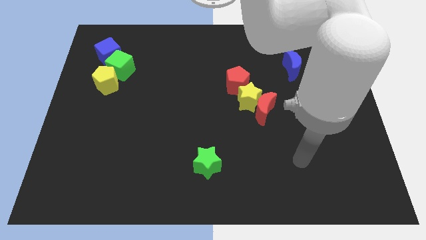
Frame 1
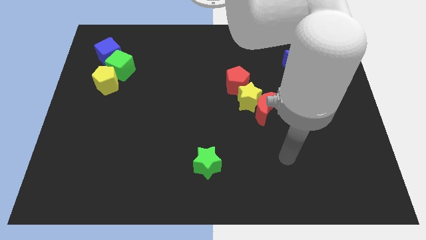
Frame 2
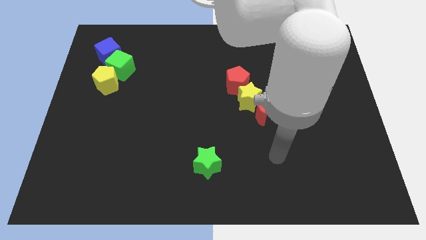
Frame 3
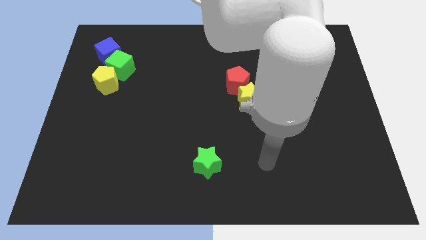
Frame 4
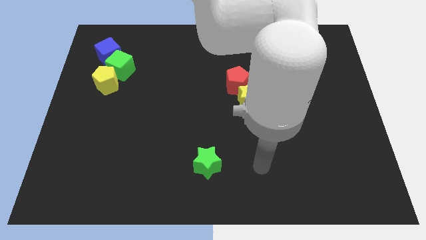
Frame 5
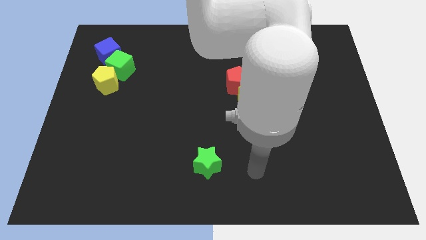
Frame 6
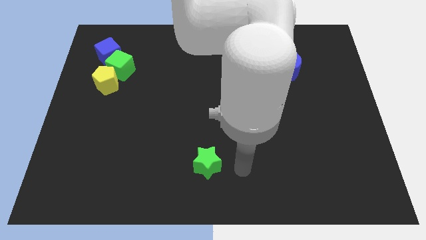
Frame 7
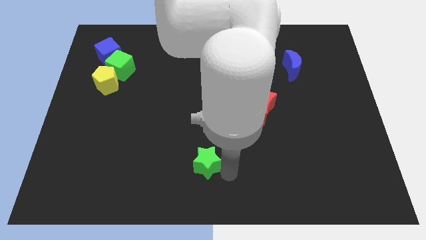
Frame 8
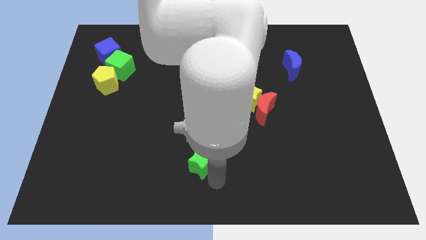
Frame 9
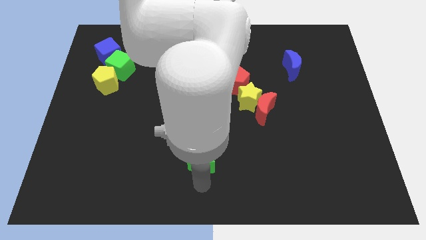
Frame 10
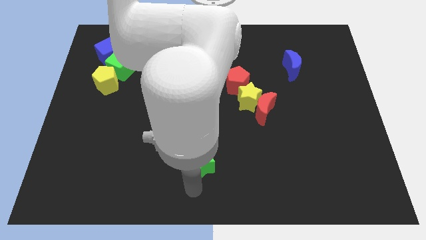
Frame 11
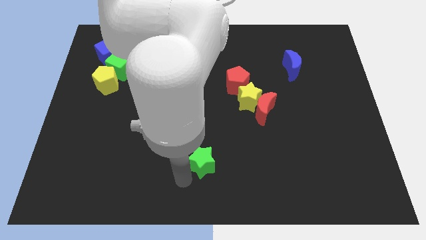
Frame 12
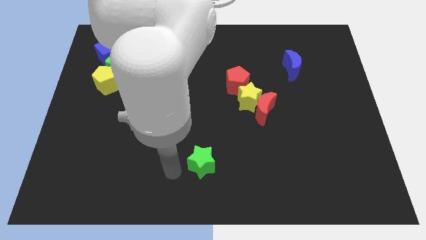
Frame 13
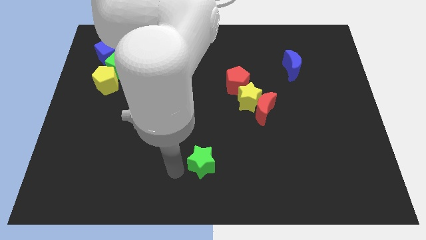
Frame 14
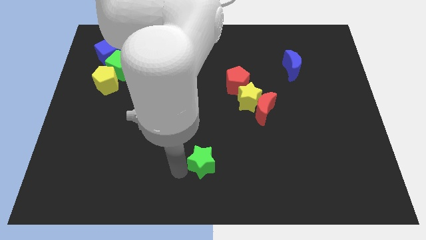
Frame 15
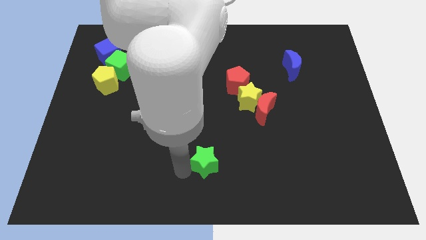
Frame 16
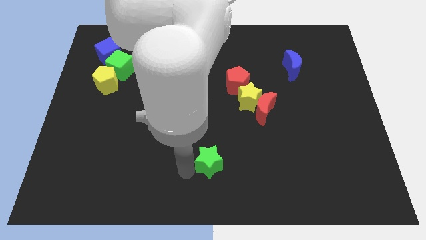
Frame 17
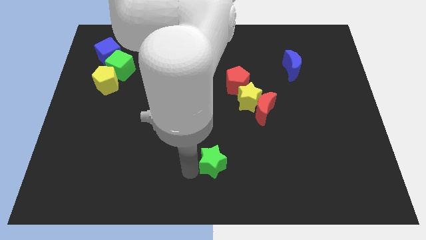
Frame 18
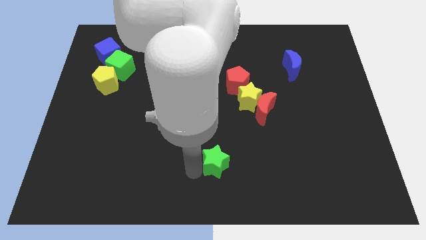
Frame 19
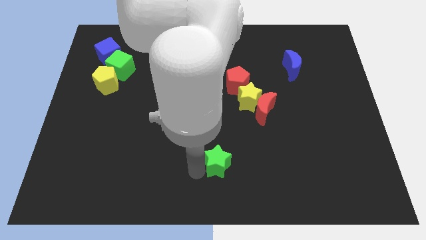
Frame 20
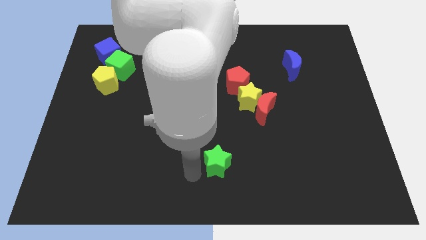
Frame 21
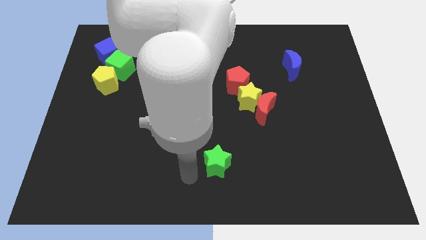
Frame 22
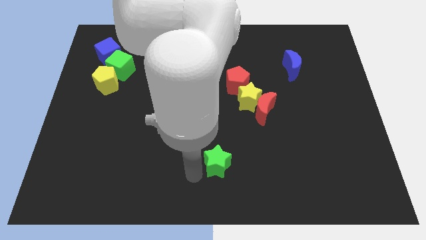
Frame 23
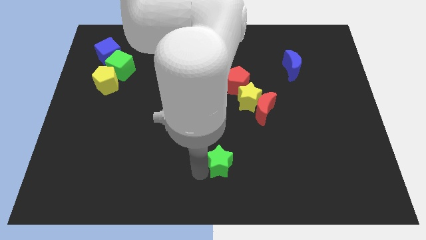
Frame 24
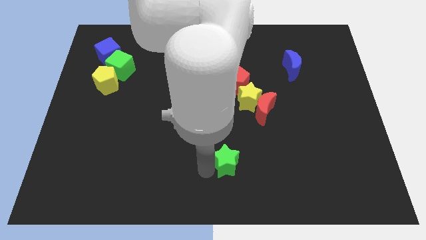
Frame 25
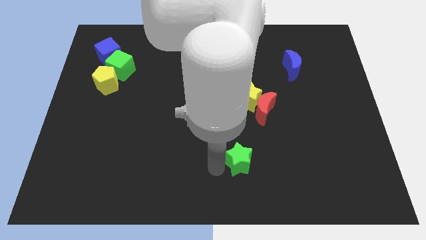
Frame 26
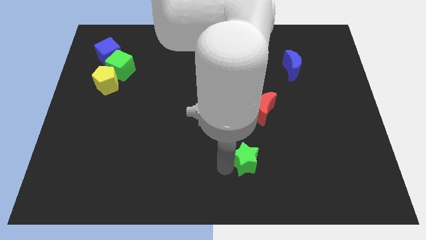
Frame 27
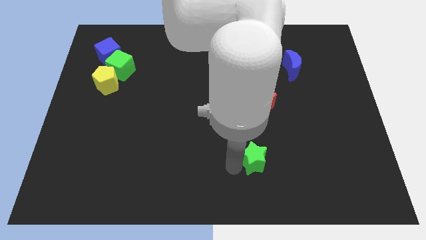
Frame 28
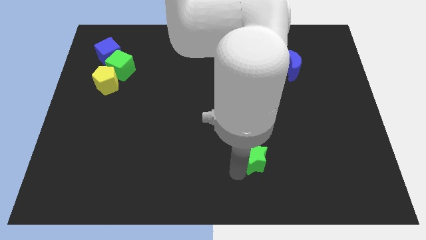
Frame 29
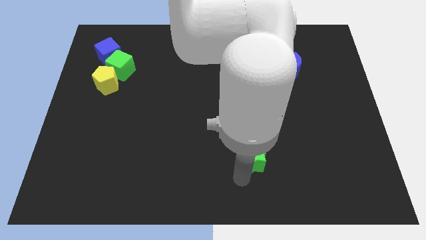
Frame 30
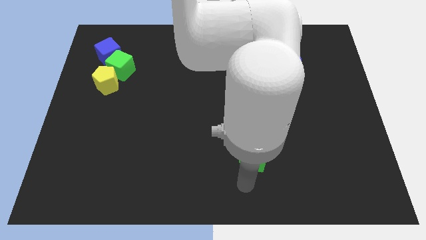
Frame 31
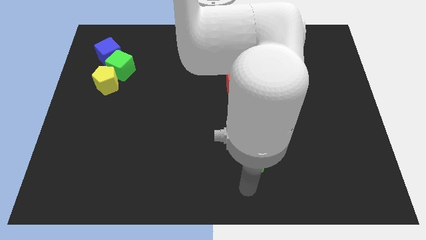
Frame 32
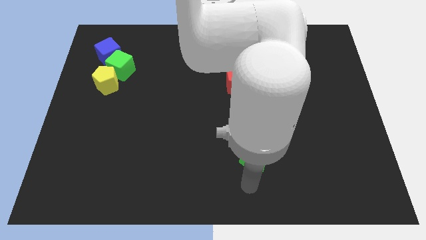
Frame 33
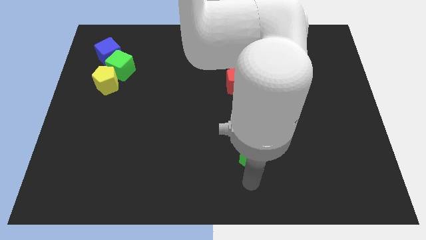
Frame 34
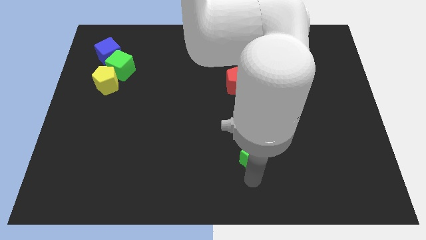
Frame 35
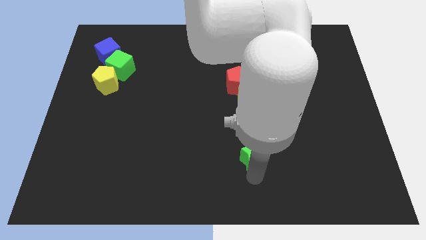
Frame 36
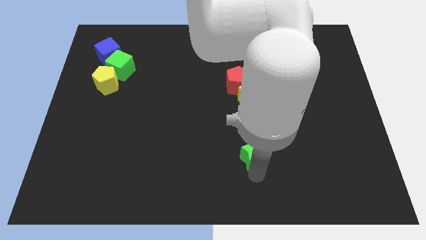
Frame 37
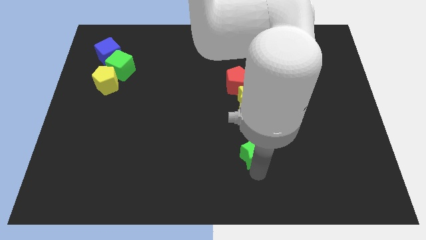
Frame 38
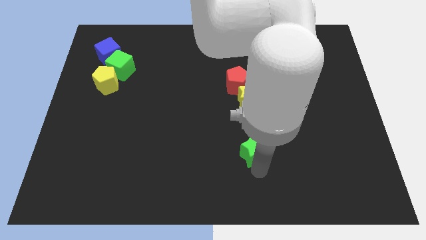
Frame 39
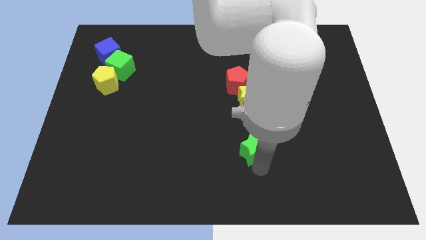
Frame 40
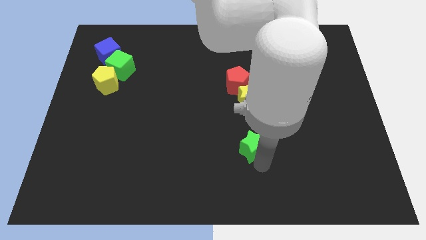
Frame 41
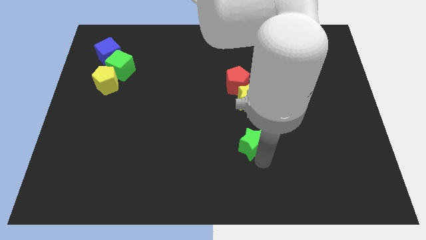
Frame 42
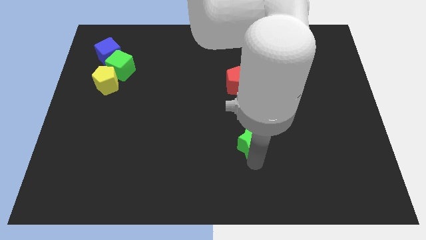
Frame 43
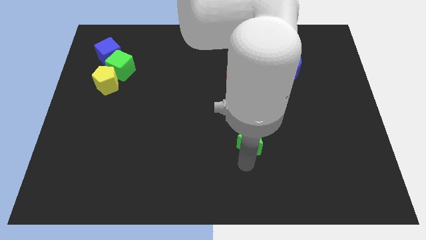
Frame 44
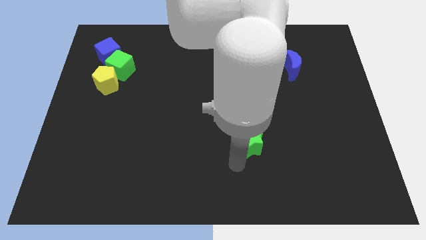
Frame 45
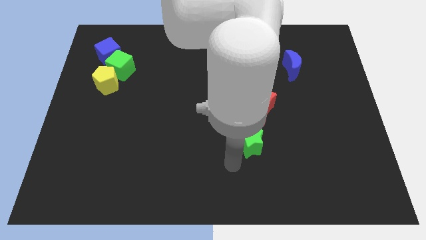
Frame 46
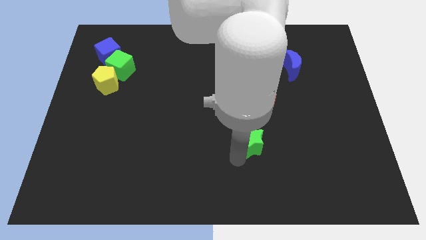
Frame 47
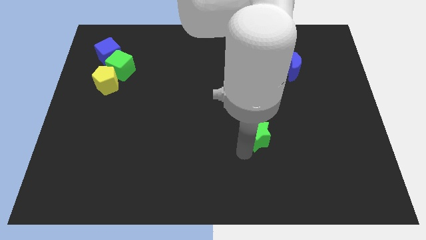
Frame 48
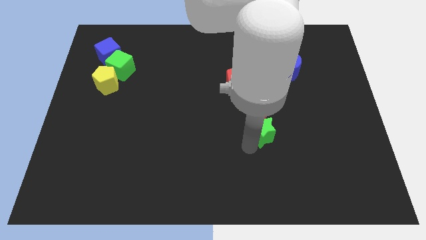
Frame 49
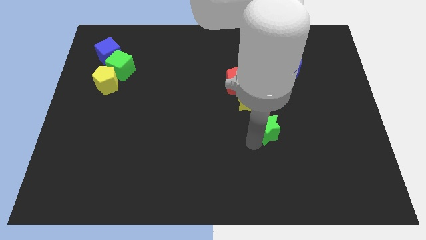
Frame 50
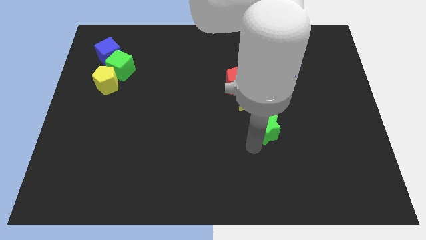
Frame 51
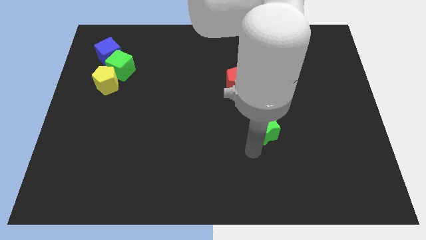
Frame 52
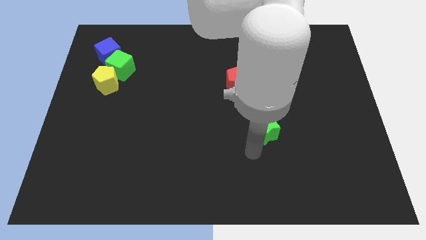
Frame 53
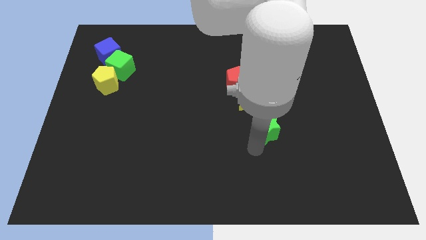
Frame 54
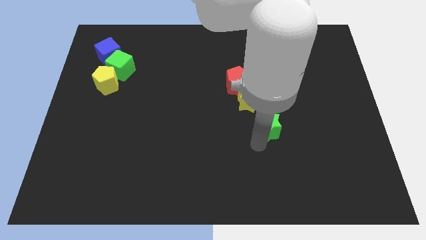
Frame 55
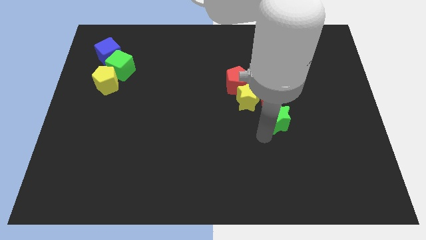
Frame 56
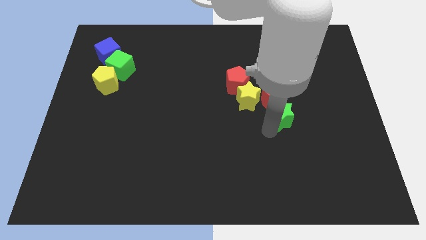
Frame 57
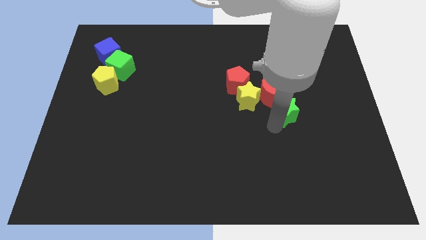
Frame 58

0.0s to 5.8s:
move the green star right of the yellow star

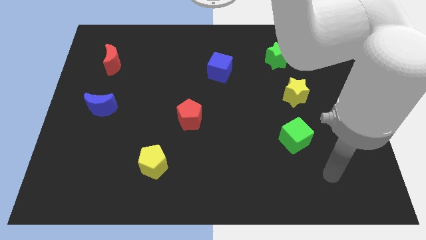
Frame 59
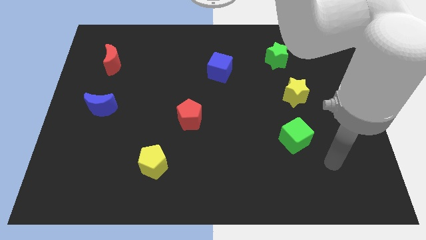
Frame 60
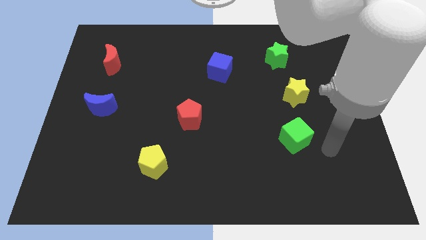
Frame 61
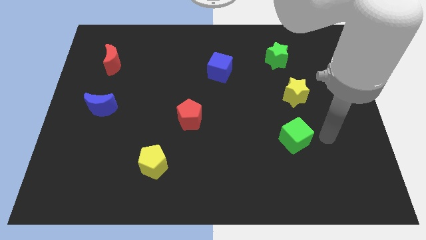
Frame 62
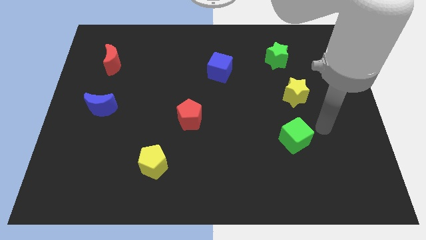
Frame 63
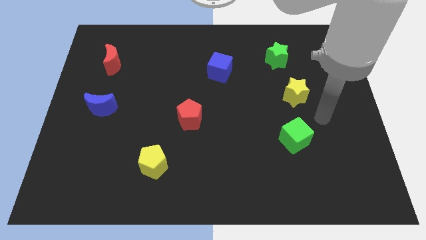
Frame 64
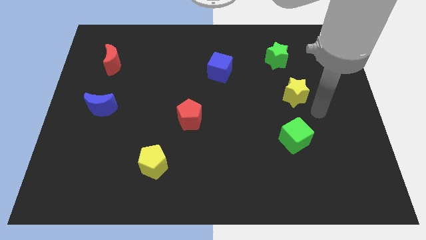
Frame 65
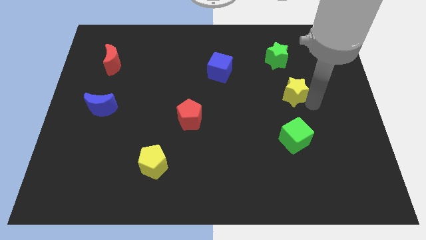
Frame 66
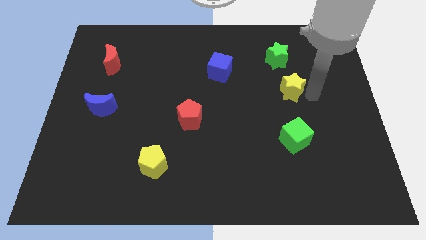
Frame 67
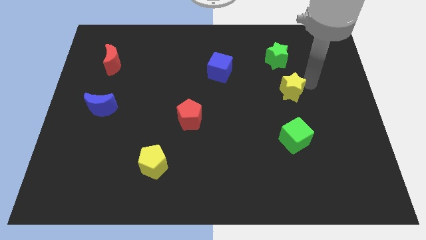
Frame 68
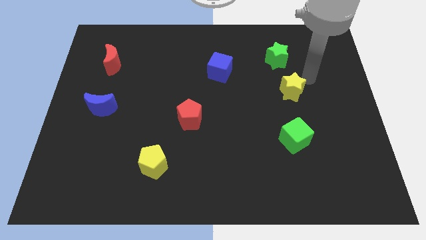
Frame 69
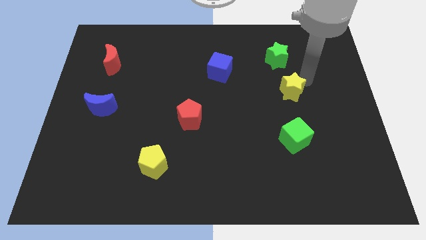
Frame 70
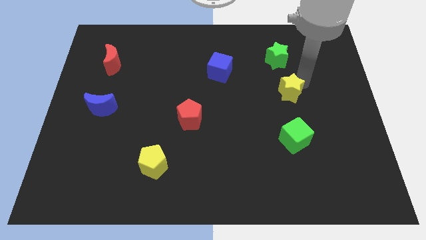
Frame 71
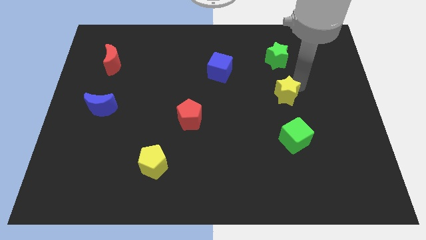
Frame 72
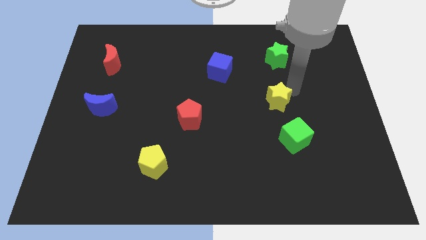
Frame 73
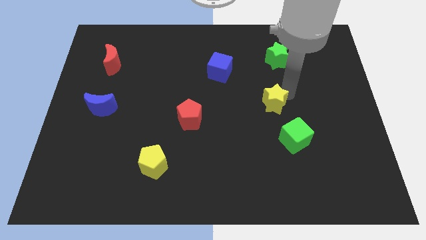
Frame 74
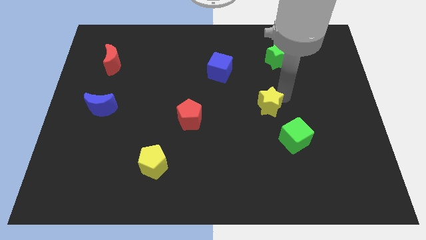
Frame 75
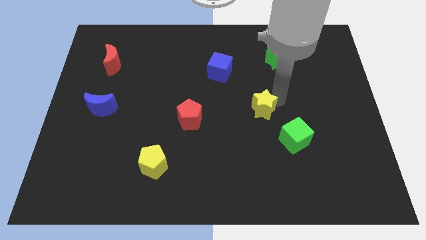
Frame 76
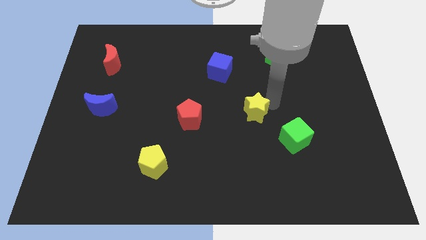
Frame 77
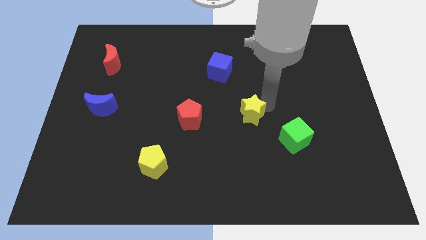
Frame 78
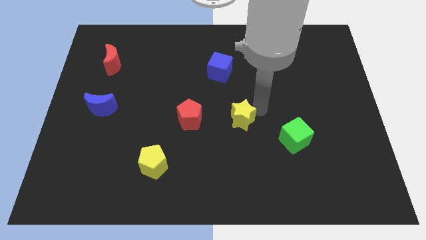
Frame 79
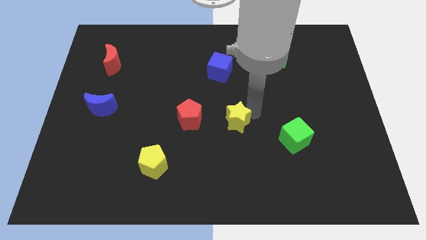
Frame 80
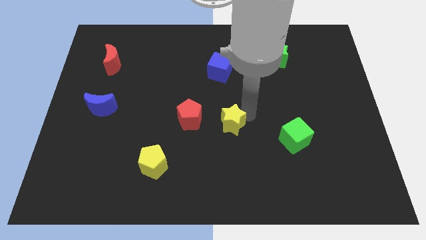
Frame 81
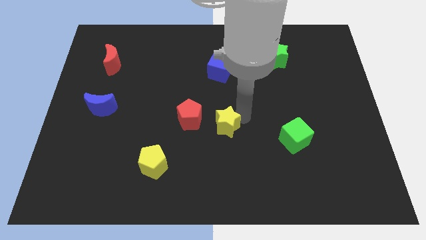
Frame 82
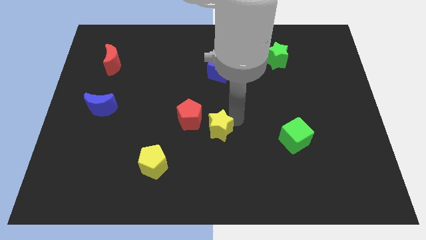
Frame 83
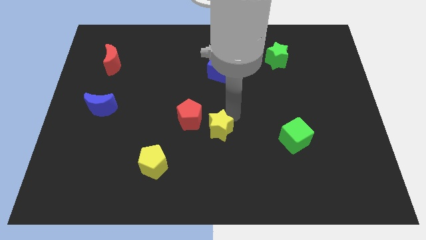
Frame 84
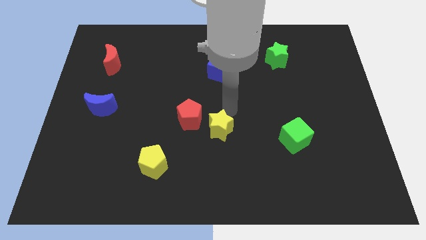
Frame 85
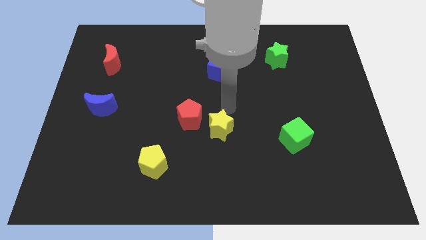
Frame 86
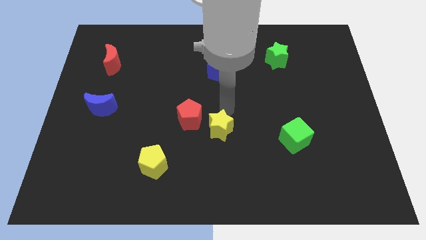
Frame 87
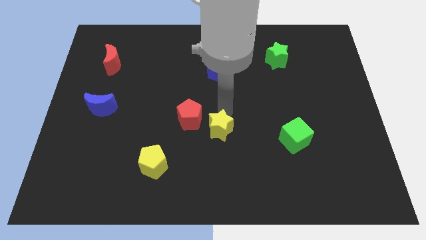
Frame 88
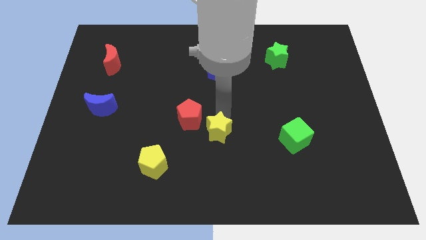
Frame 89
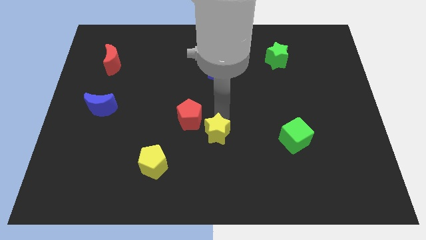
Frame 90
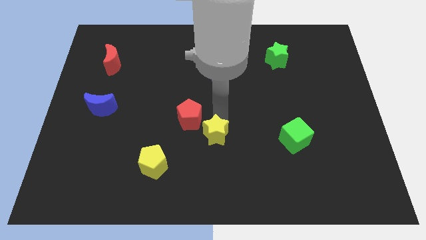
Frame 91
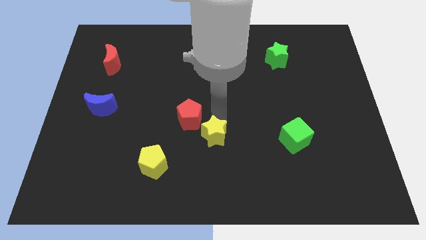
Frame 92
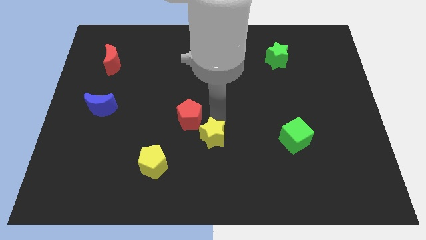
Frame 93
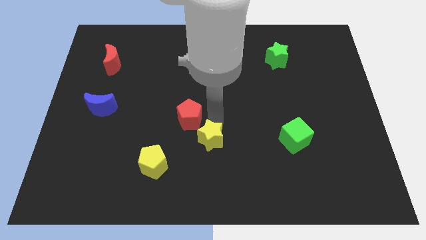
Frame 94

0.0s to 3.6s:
put the yellow star to the bottom of the red pentagon
